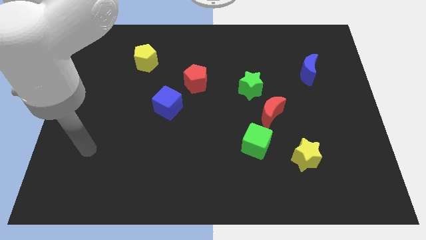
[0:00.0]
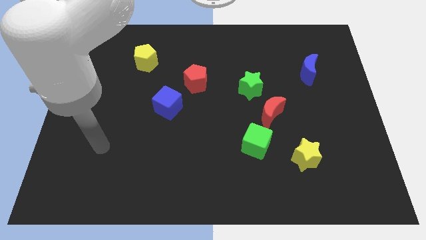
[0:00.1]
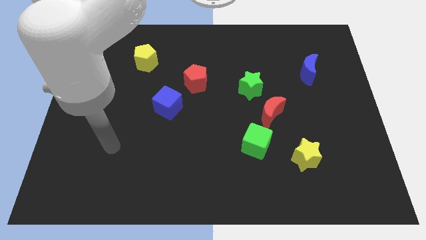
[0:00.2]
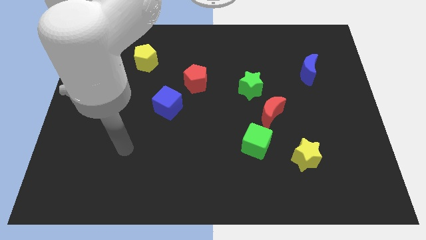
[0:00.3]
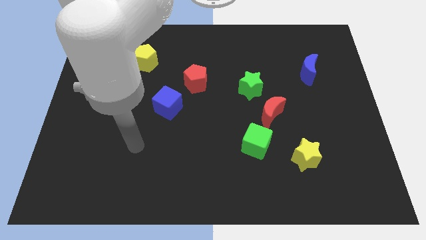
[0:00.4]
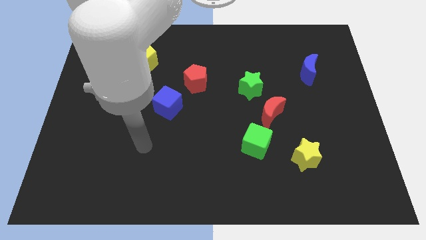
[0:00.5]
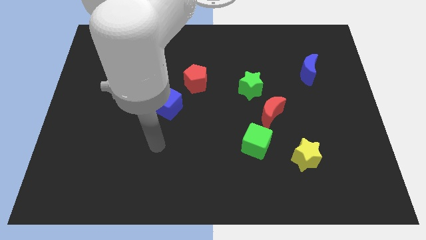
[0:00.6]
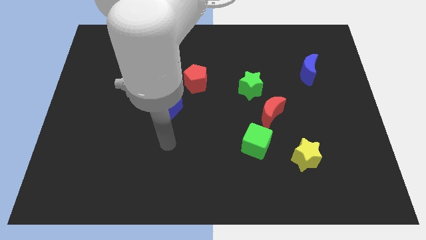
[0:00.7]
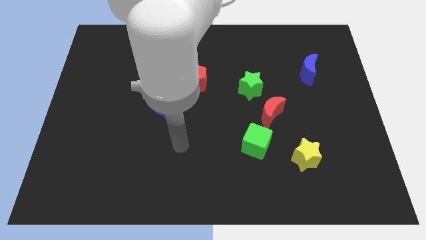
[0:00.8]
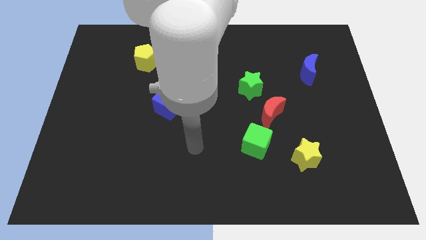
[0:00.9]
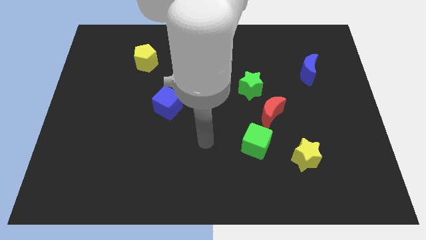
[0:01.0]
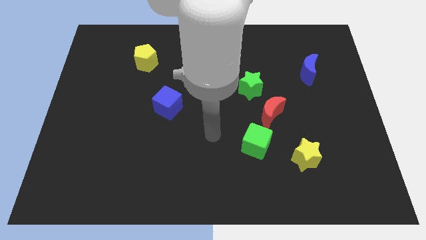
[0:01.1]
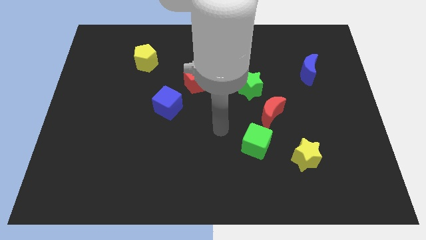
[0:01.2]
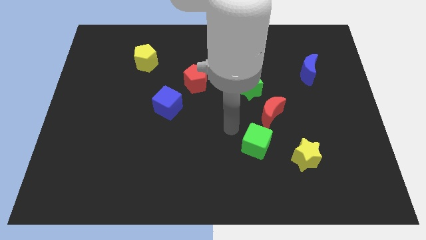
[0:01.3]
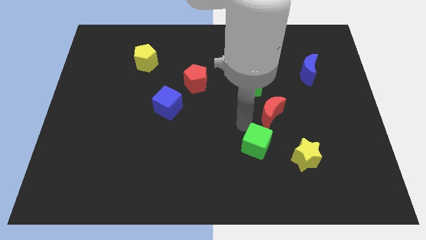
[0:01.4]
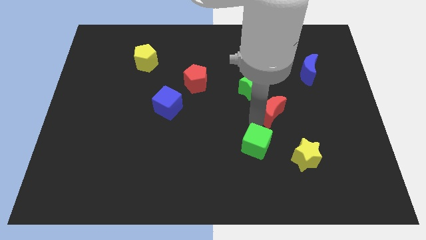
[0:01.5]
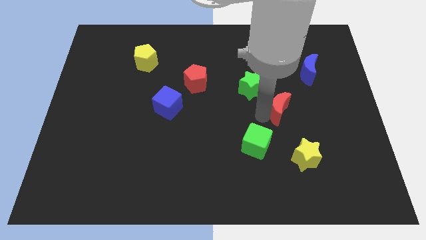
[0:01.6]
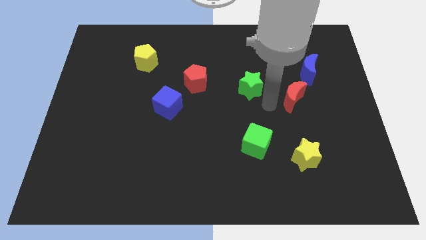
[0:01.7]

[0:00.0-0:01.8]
pull the green star apart from the red moon

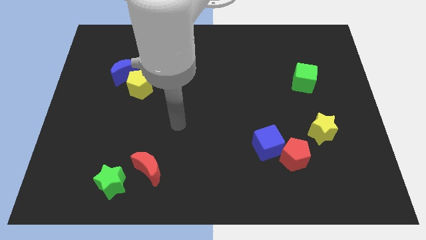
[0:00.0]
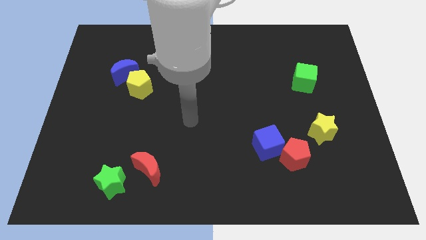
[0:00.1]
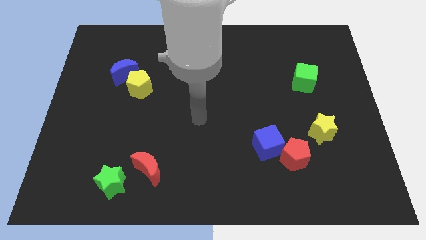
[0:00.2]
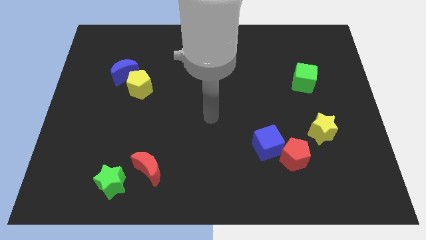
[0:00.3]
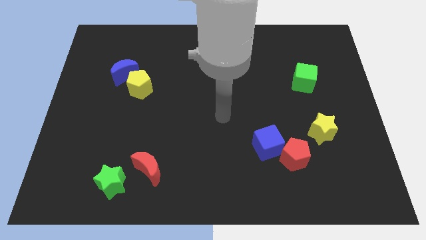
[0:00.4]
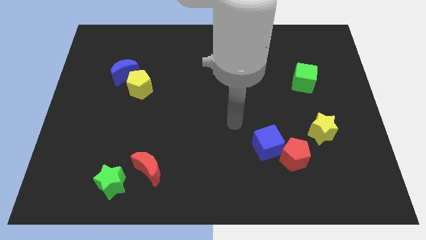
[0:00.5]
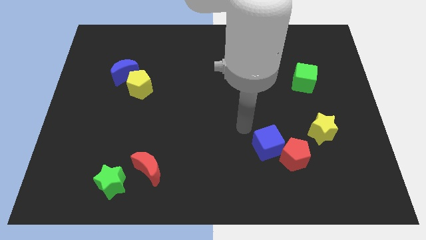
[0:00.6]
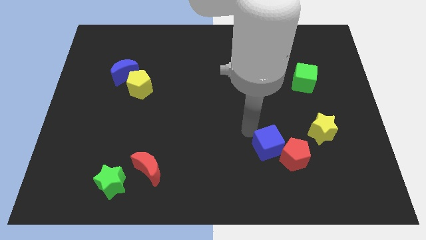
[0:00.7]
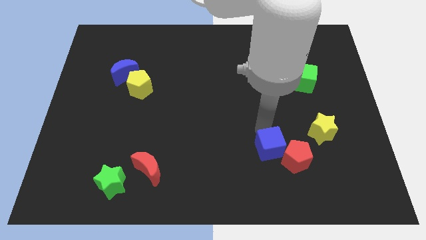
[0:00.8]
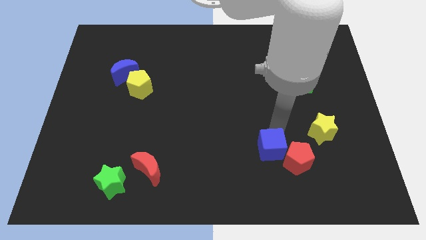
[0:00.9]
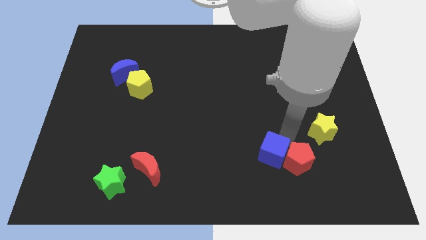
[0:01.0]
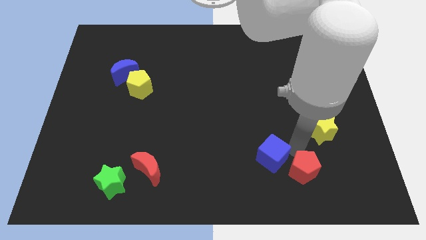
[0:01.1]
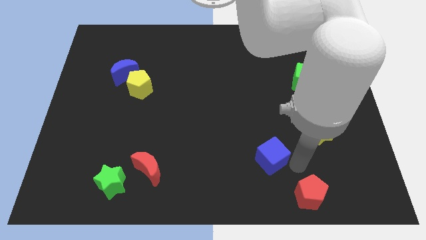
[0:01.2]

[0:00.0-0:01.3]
move the blue cube away from the red pentagon

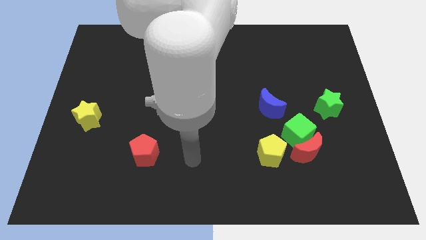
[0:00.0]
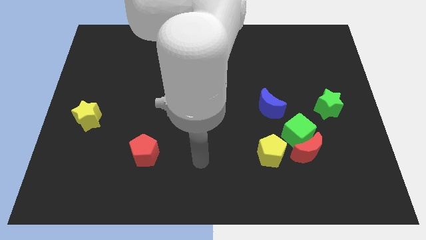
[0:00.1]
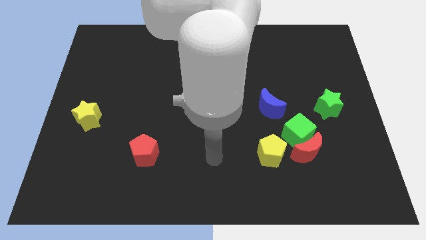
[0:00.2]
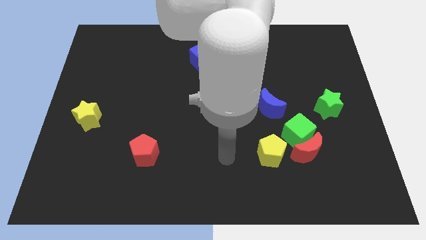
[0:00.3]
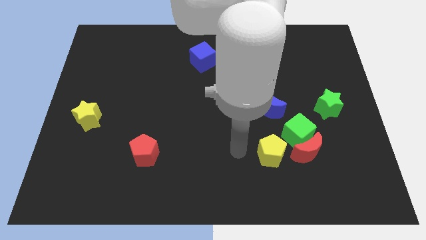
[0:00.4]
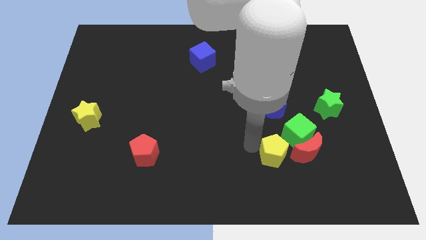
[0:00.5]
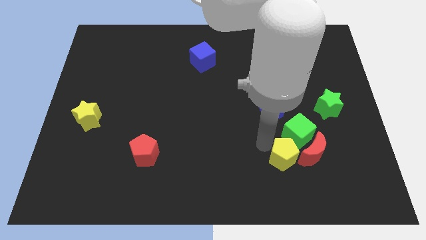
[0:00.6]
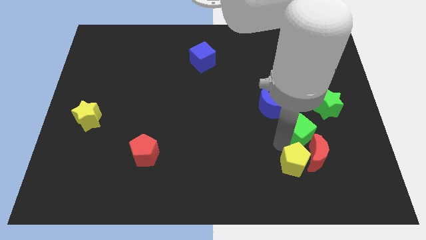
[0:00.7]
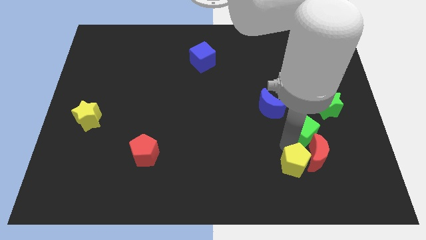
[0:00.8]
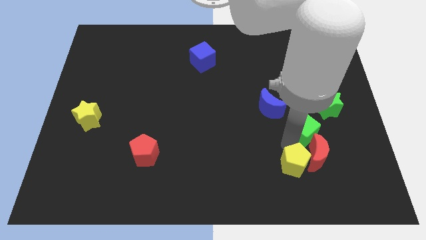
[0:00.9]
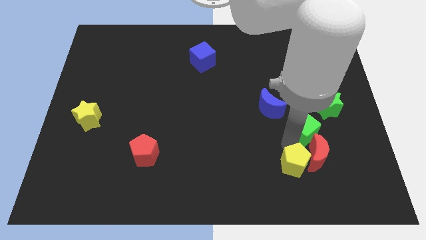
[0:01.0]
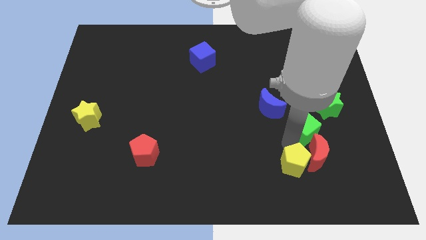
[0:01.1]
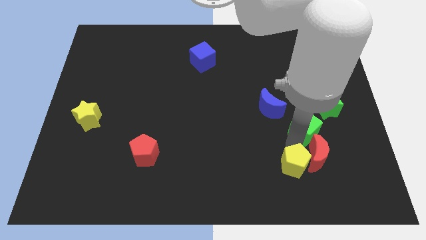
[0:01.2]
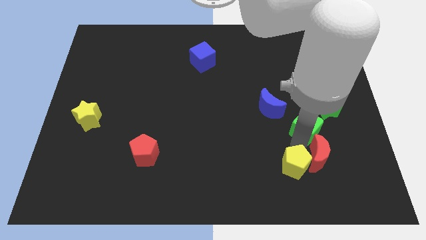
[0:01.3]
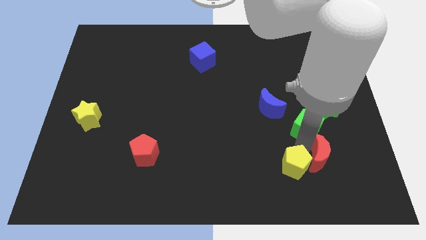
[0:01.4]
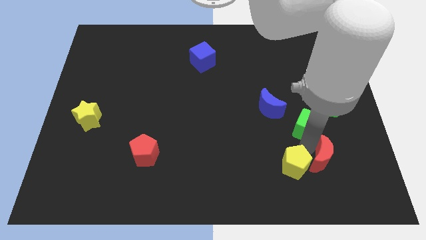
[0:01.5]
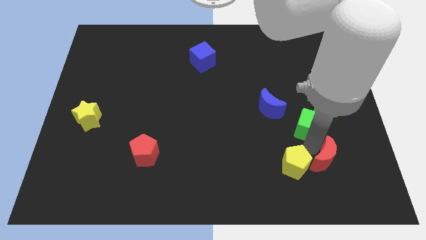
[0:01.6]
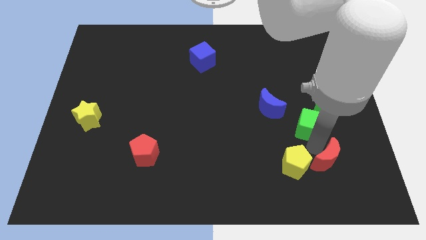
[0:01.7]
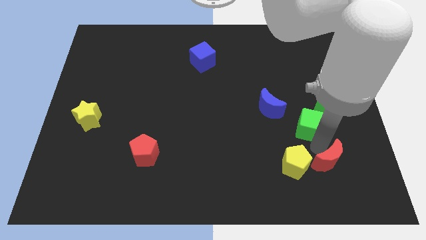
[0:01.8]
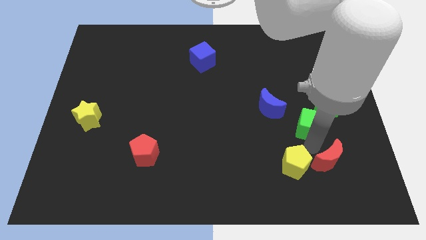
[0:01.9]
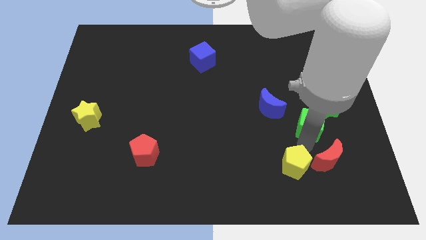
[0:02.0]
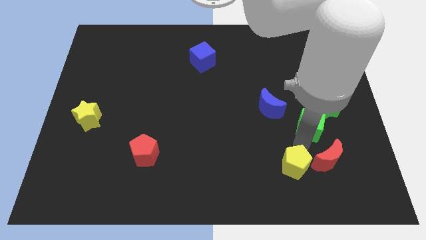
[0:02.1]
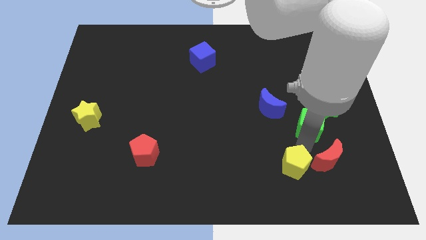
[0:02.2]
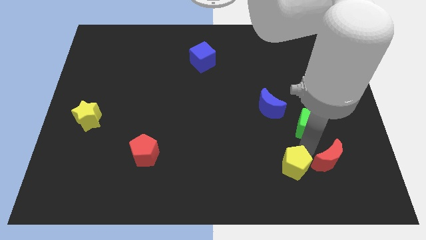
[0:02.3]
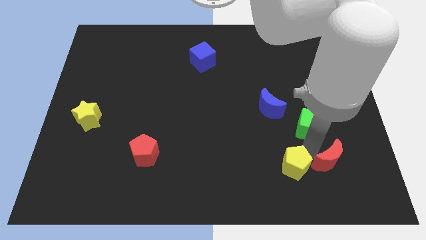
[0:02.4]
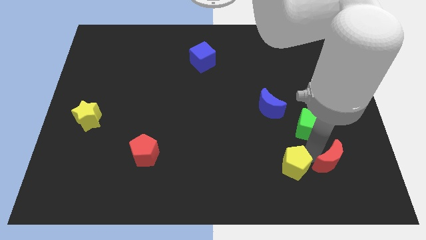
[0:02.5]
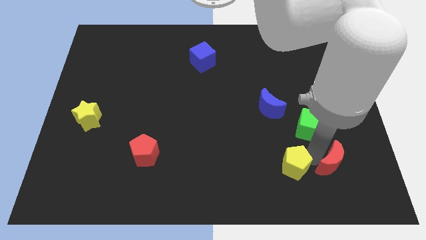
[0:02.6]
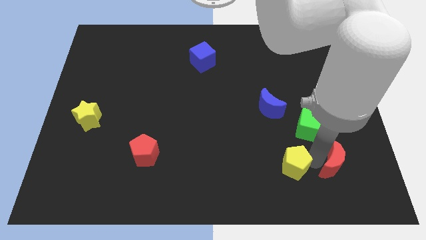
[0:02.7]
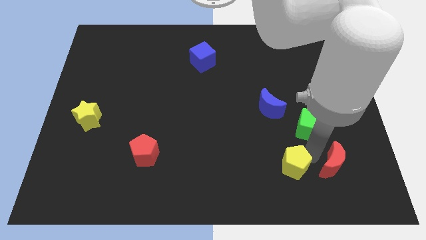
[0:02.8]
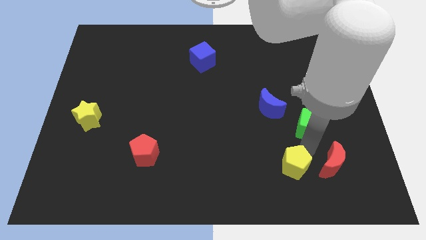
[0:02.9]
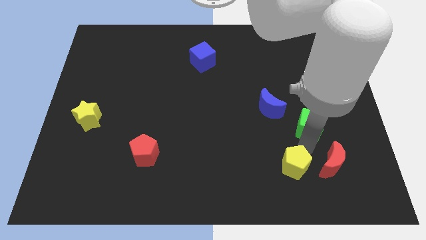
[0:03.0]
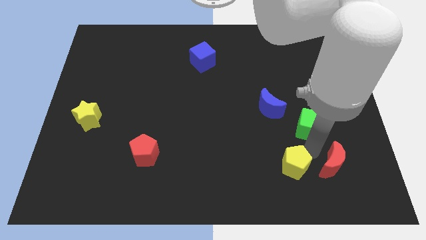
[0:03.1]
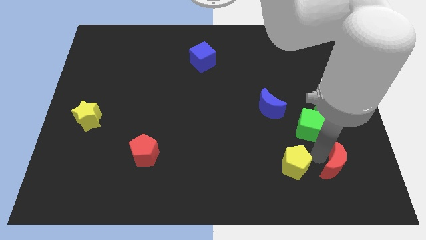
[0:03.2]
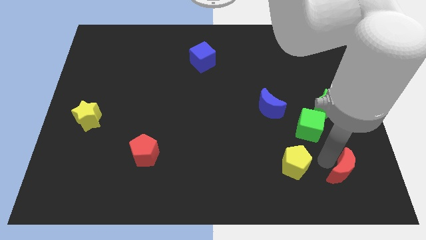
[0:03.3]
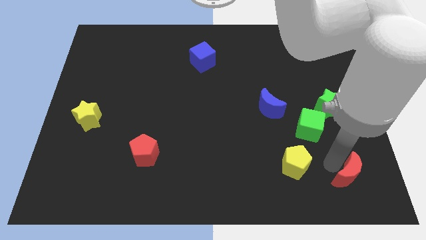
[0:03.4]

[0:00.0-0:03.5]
separate the red moon from the green cube and yellow pentagon

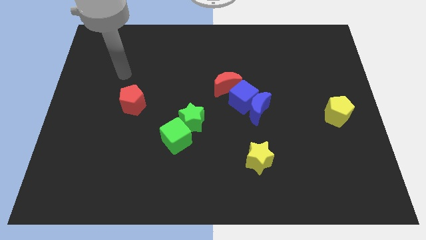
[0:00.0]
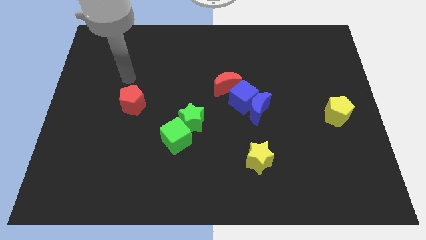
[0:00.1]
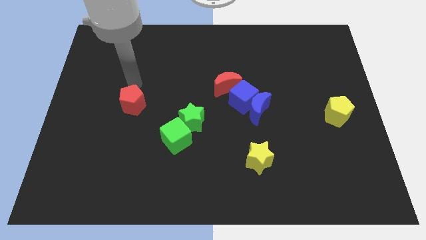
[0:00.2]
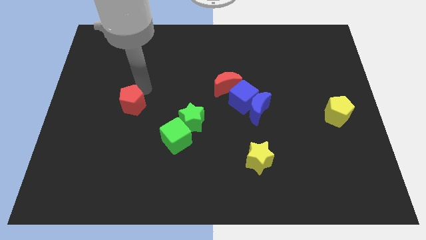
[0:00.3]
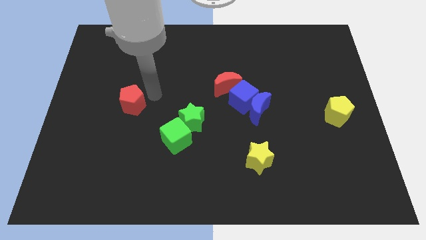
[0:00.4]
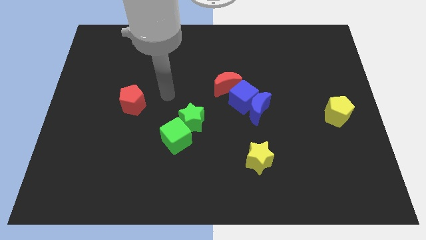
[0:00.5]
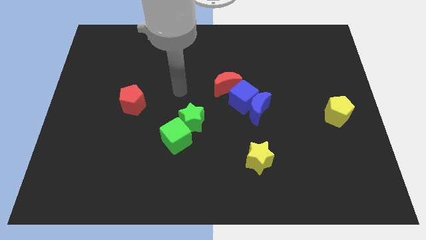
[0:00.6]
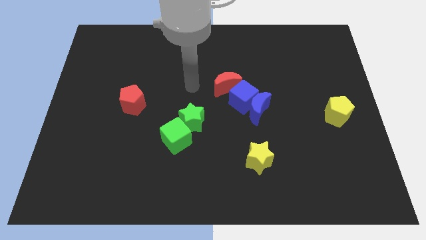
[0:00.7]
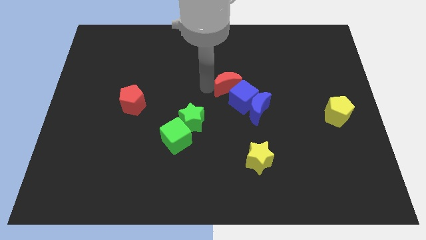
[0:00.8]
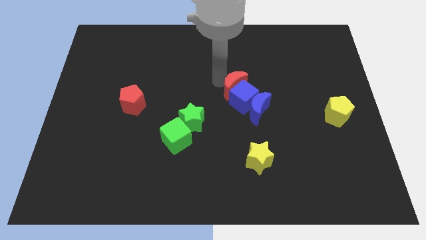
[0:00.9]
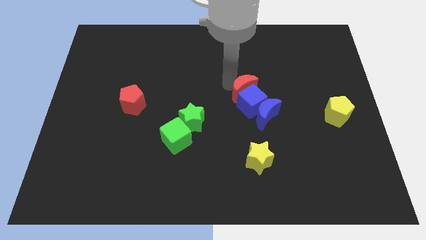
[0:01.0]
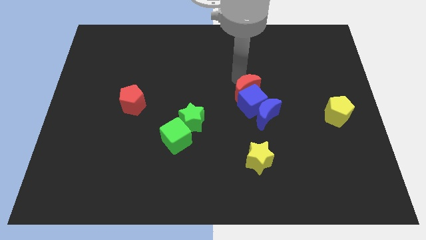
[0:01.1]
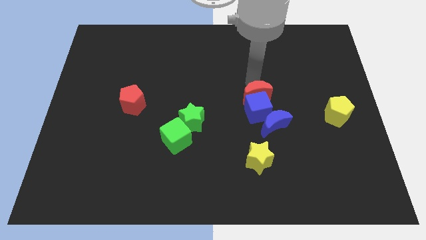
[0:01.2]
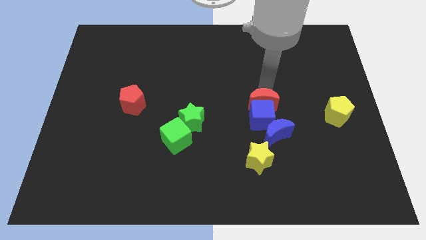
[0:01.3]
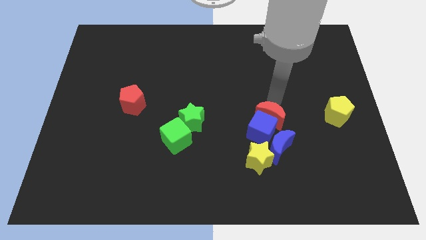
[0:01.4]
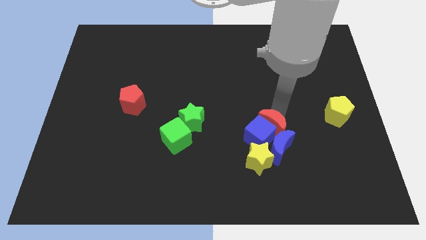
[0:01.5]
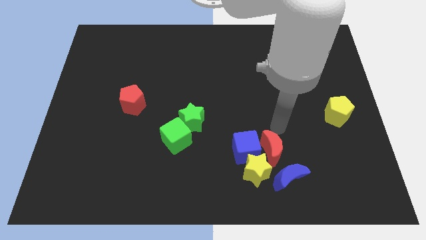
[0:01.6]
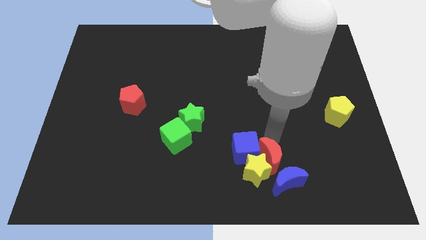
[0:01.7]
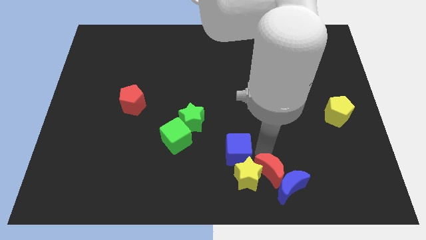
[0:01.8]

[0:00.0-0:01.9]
pull the blue cube apart from the blue moon and red moon

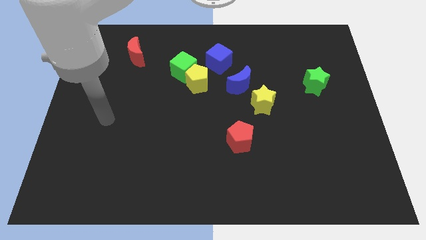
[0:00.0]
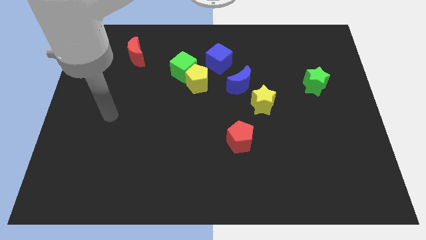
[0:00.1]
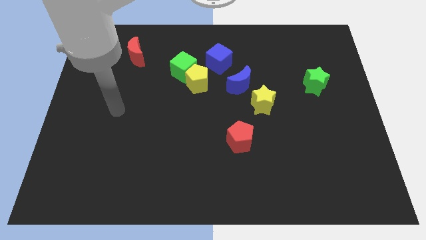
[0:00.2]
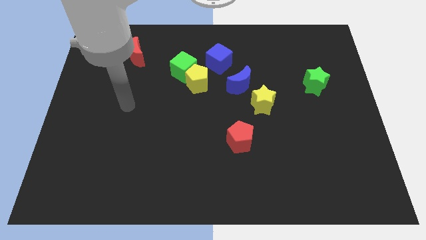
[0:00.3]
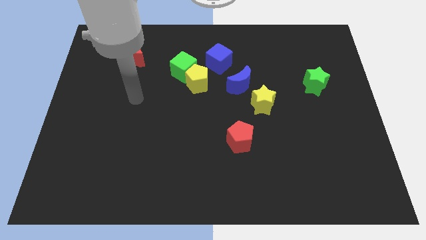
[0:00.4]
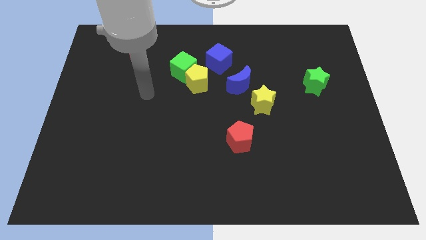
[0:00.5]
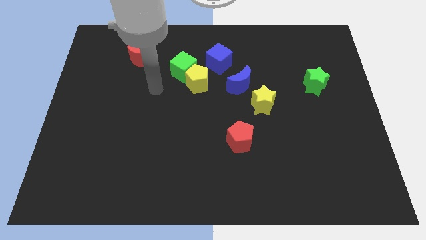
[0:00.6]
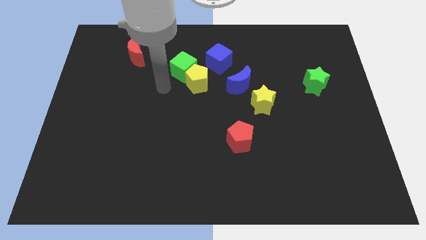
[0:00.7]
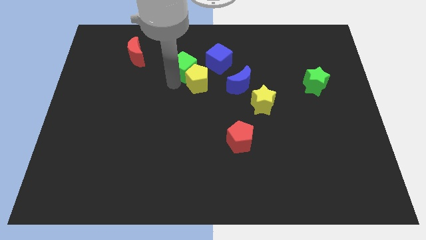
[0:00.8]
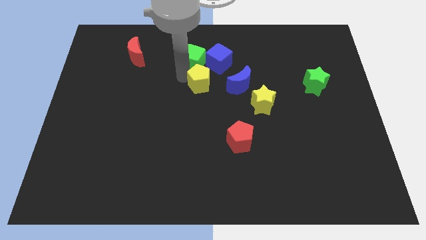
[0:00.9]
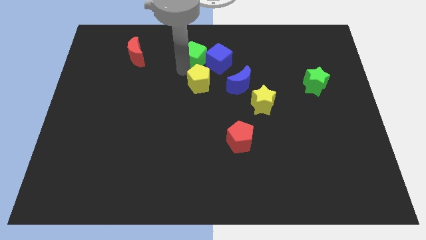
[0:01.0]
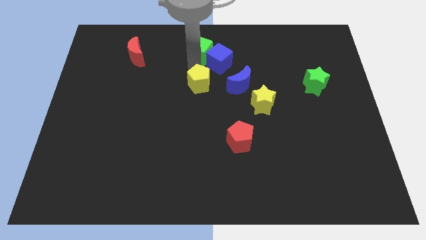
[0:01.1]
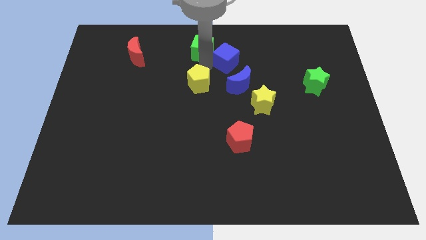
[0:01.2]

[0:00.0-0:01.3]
pull the yellow pentagon apart from the green cube and blue cube
